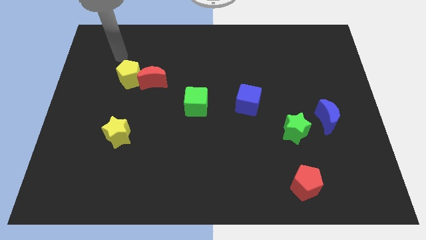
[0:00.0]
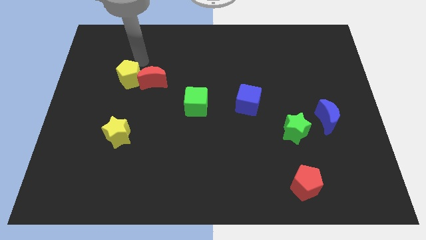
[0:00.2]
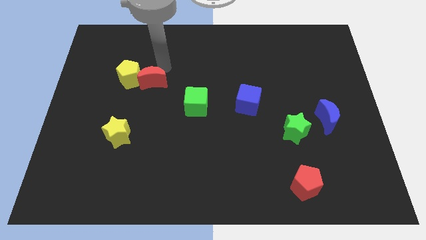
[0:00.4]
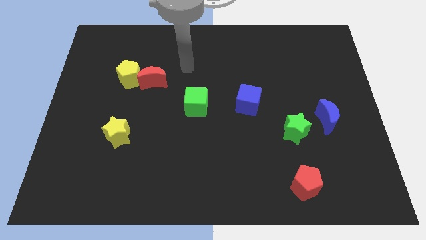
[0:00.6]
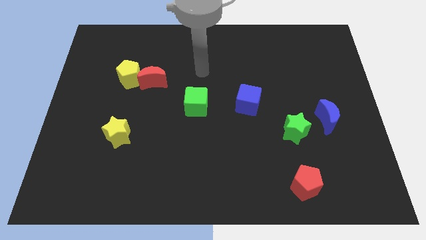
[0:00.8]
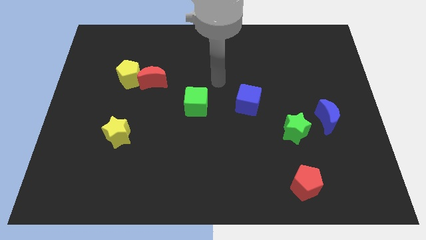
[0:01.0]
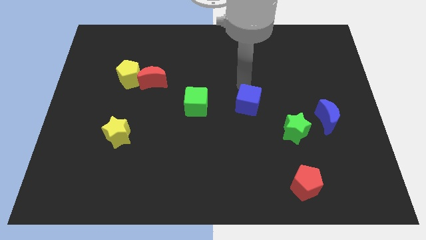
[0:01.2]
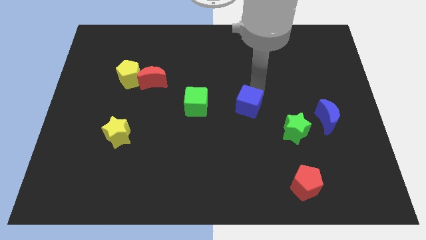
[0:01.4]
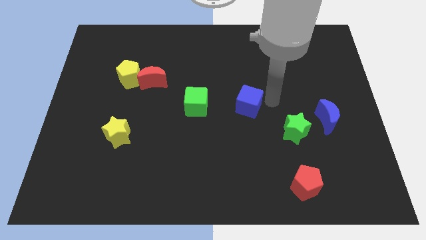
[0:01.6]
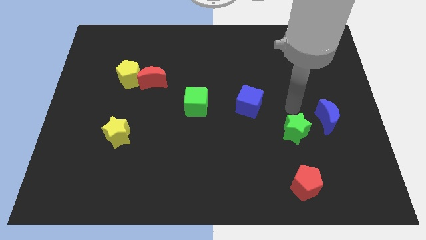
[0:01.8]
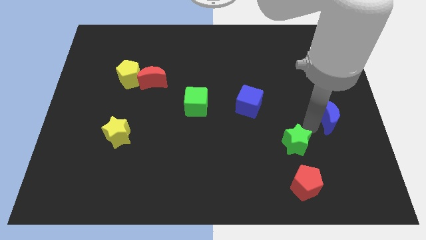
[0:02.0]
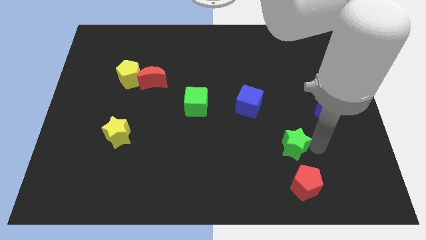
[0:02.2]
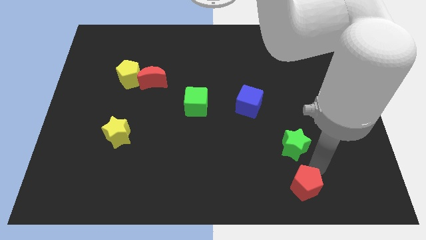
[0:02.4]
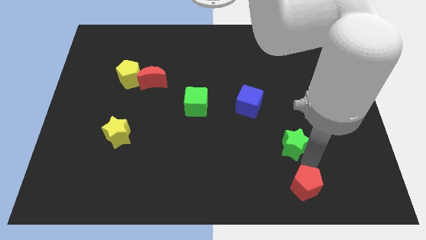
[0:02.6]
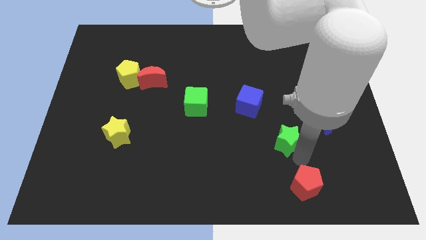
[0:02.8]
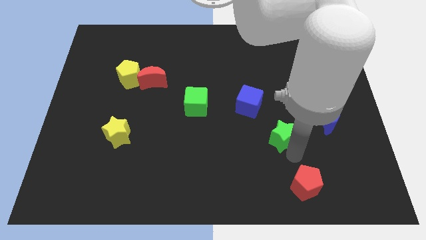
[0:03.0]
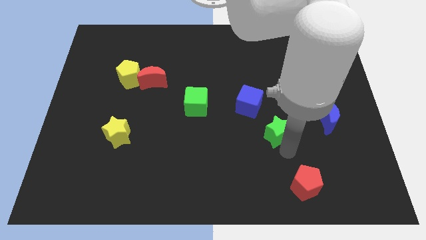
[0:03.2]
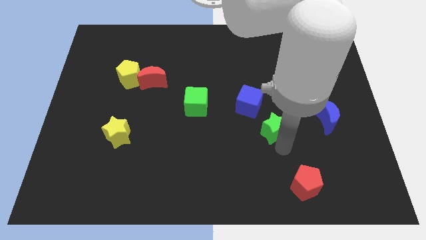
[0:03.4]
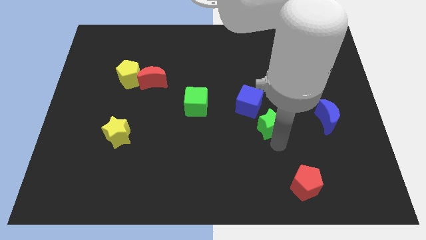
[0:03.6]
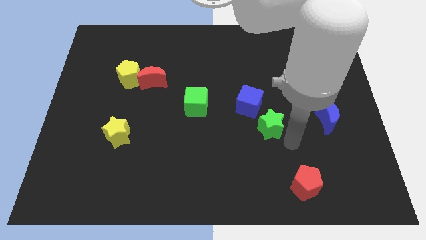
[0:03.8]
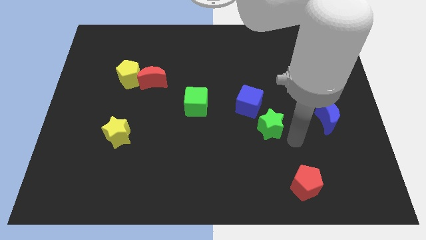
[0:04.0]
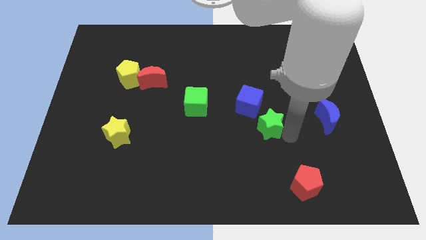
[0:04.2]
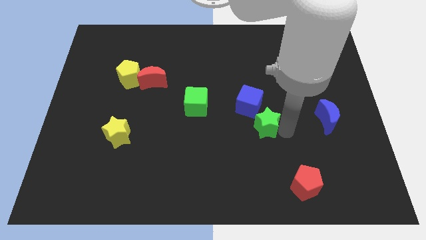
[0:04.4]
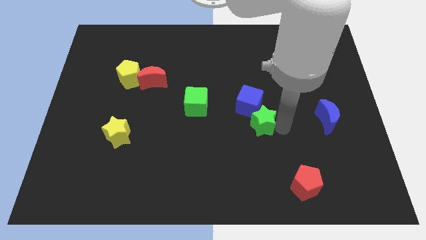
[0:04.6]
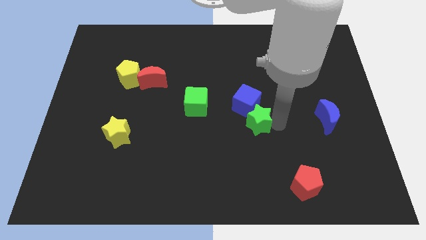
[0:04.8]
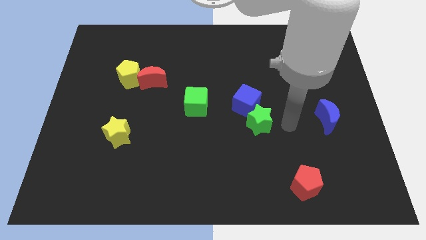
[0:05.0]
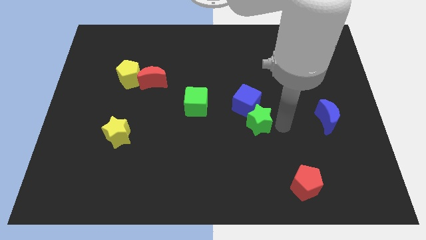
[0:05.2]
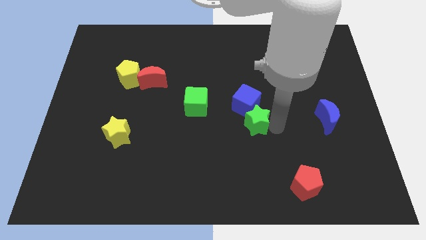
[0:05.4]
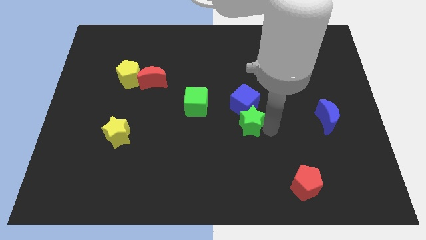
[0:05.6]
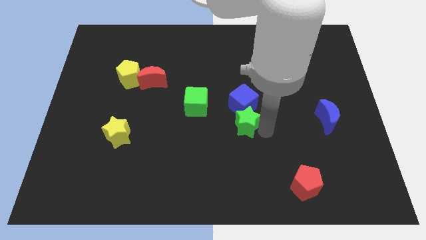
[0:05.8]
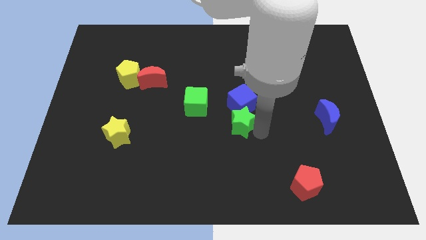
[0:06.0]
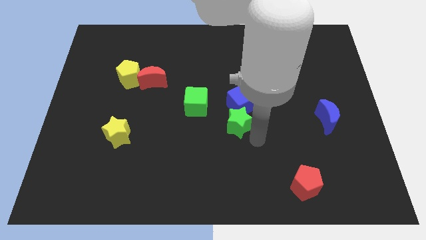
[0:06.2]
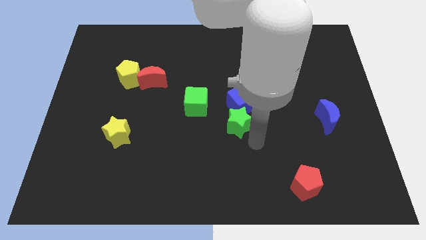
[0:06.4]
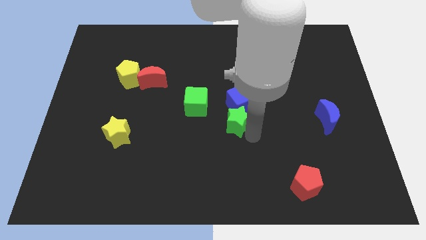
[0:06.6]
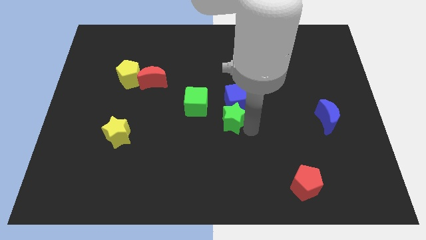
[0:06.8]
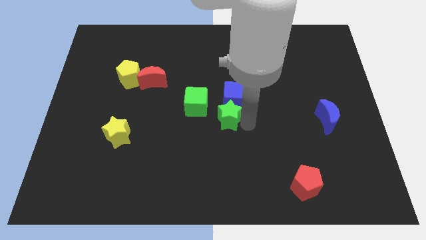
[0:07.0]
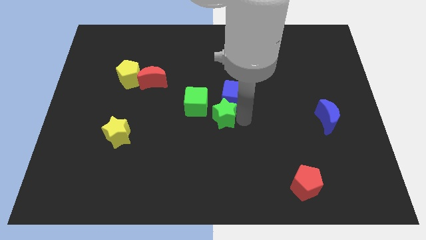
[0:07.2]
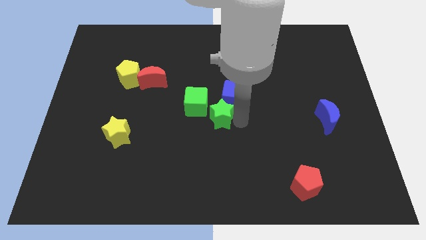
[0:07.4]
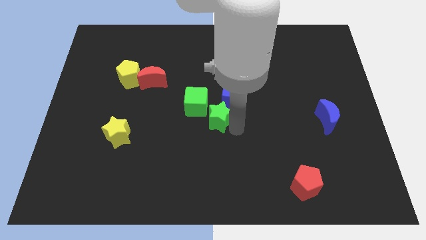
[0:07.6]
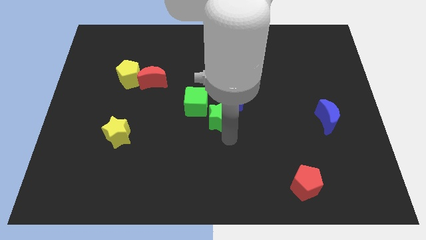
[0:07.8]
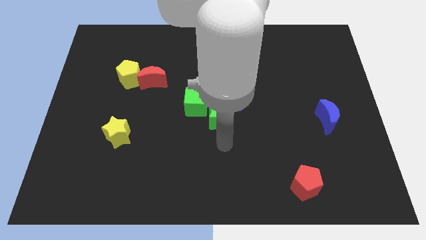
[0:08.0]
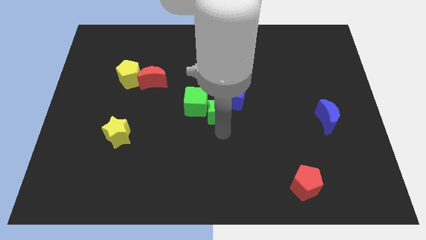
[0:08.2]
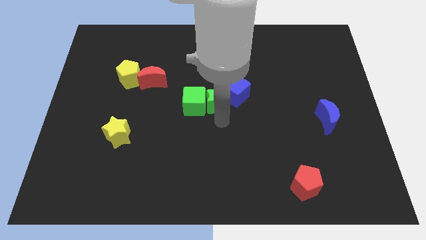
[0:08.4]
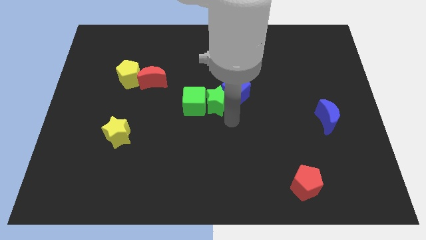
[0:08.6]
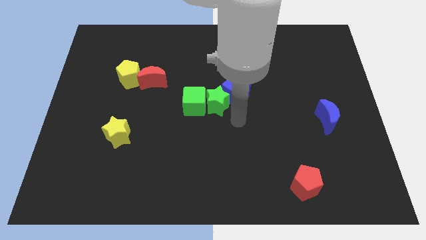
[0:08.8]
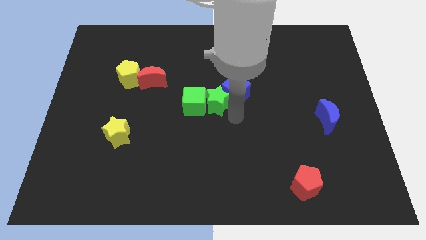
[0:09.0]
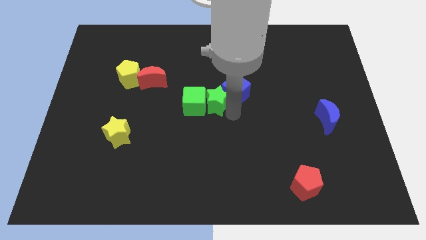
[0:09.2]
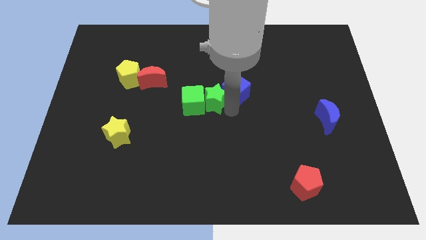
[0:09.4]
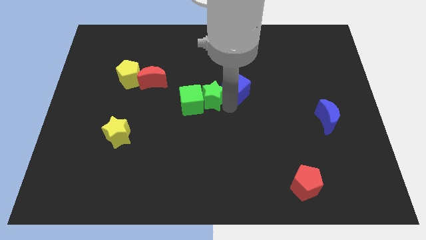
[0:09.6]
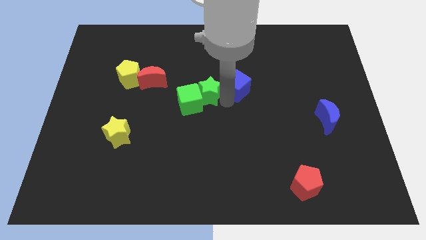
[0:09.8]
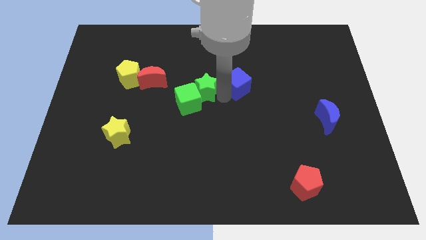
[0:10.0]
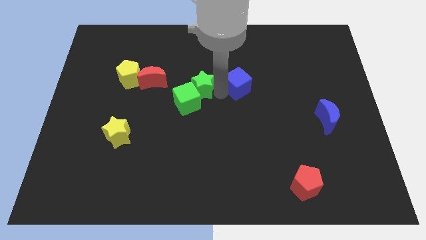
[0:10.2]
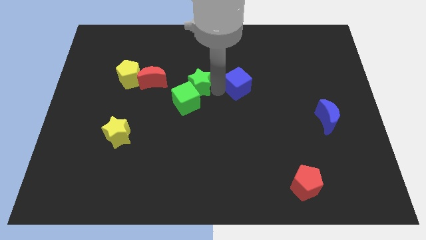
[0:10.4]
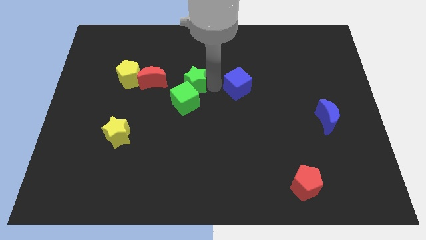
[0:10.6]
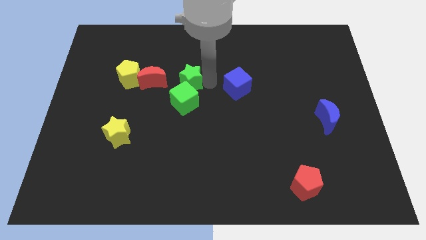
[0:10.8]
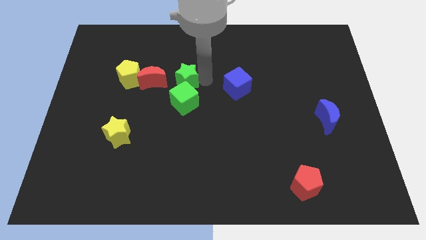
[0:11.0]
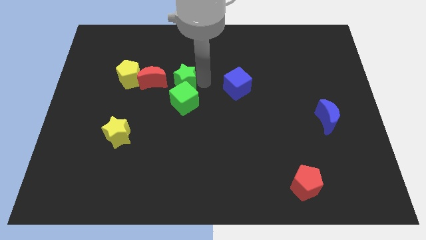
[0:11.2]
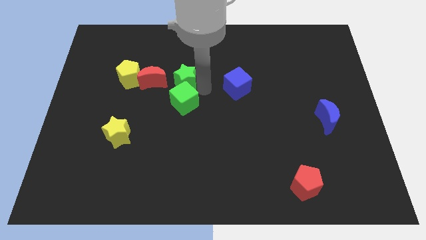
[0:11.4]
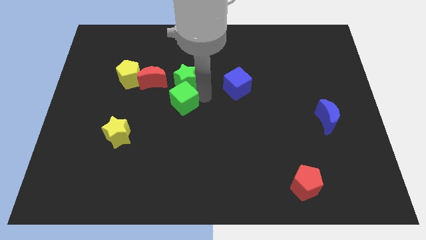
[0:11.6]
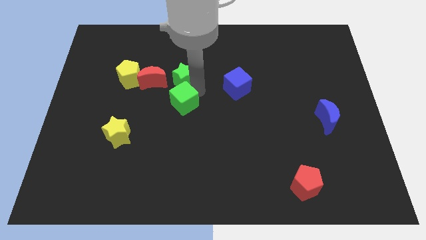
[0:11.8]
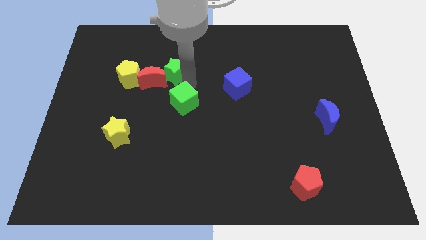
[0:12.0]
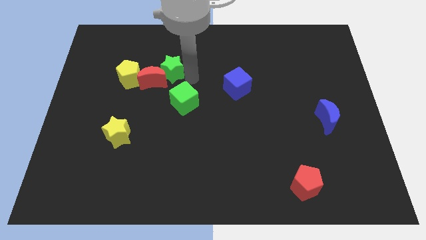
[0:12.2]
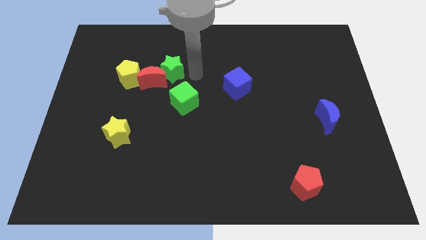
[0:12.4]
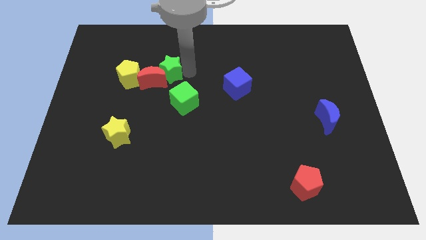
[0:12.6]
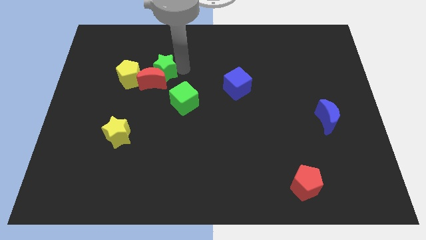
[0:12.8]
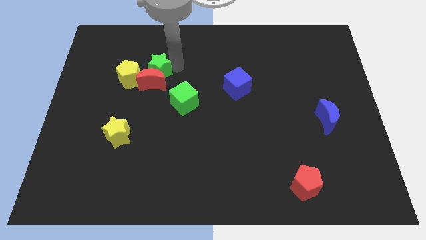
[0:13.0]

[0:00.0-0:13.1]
slide the green star to the top left of the red moon
